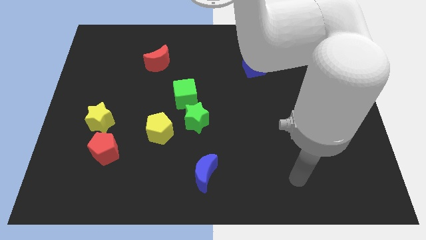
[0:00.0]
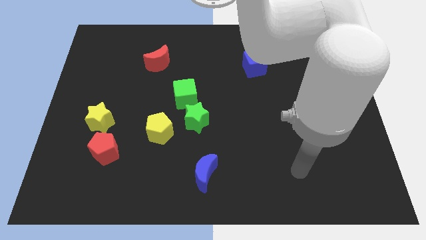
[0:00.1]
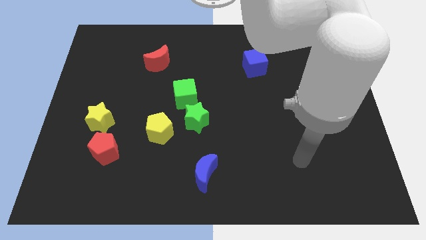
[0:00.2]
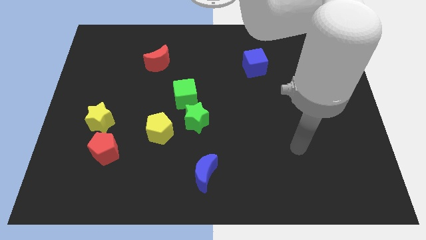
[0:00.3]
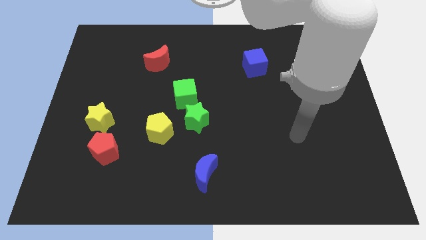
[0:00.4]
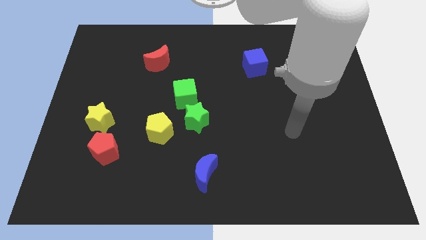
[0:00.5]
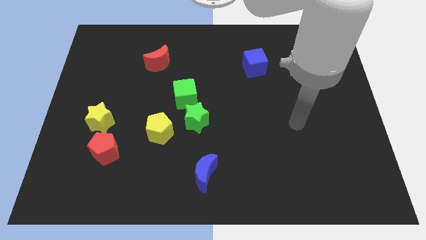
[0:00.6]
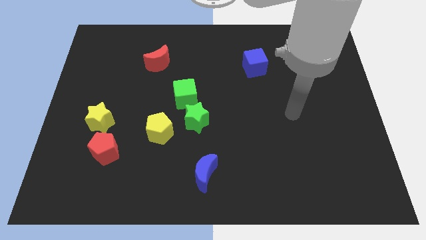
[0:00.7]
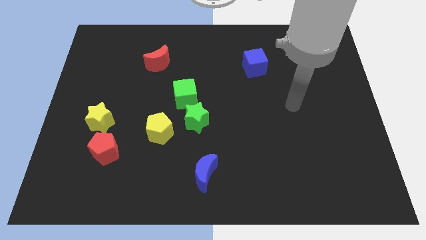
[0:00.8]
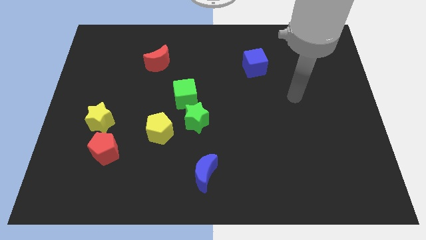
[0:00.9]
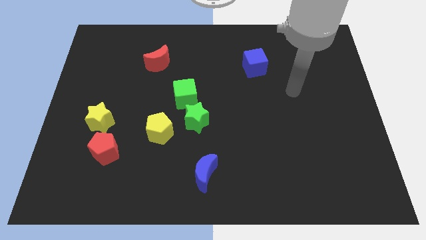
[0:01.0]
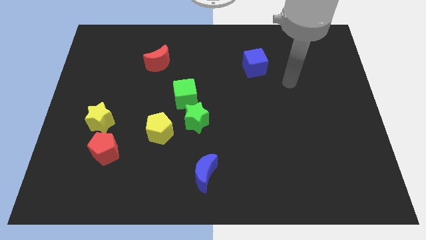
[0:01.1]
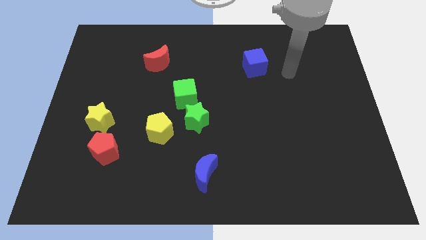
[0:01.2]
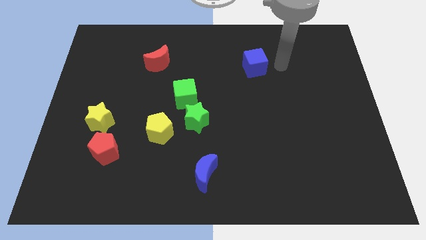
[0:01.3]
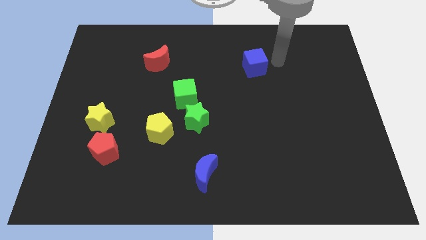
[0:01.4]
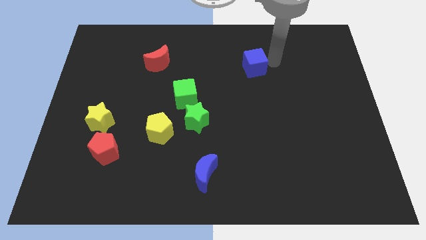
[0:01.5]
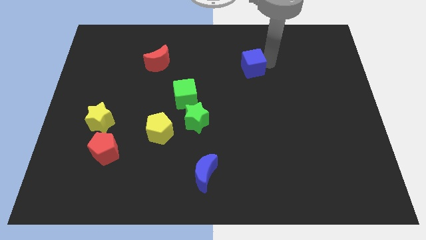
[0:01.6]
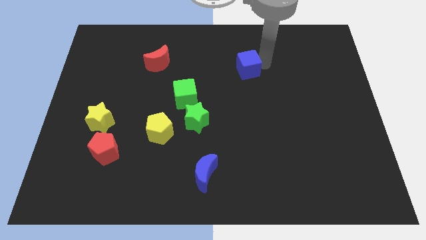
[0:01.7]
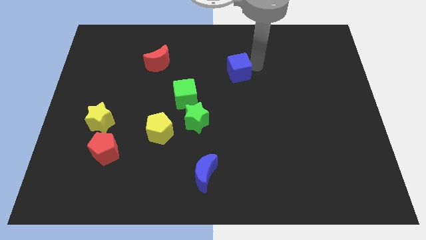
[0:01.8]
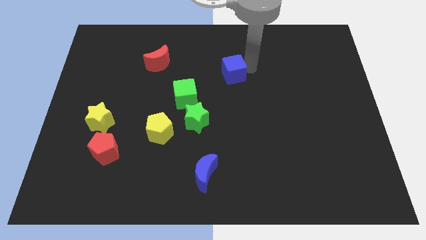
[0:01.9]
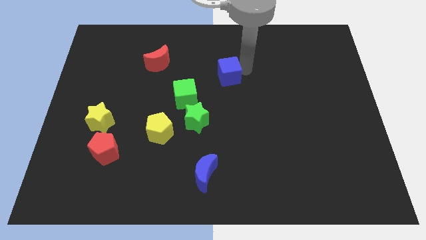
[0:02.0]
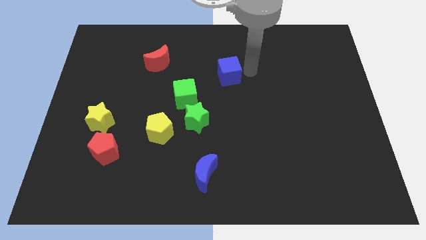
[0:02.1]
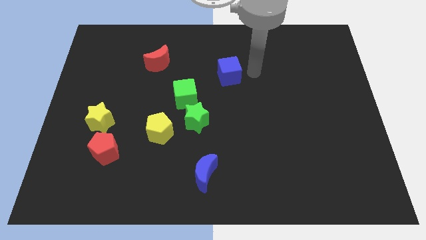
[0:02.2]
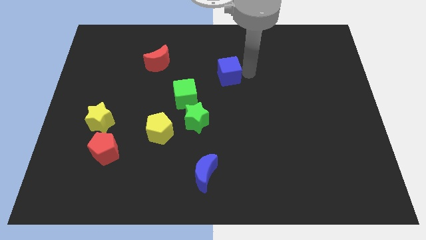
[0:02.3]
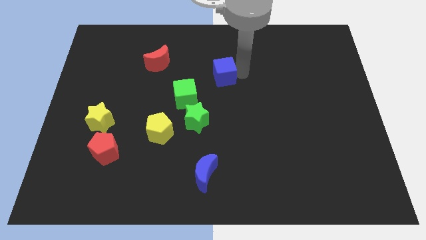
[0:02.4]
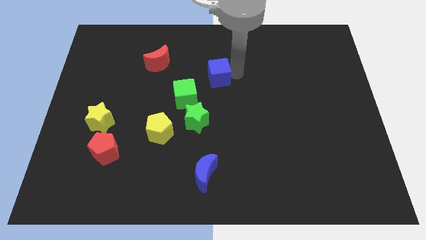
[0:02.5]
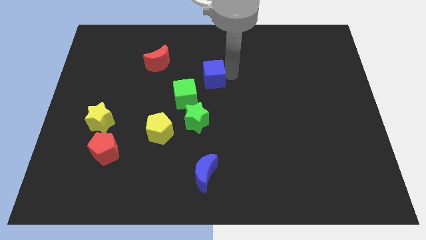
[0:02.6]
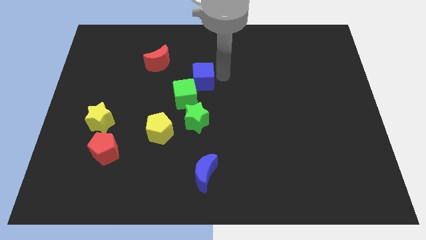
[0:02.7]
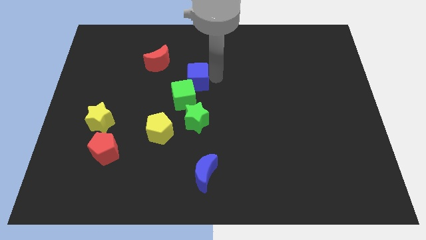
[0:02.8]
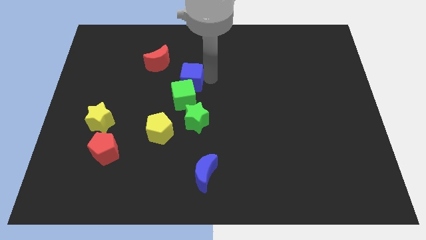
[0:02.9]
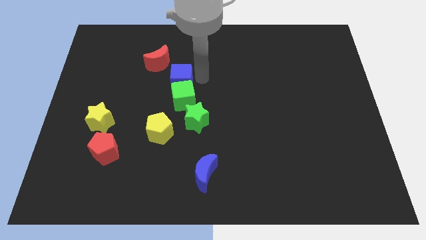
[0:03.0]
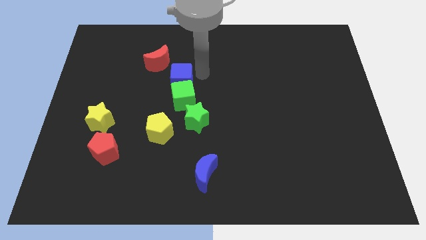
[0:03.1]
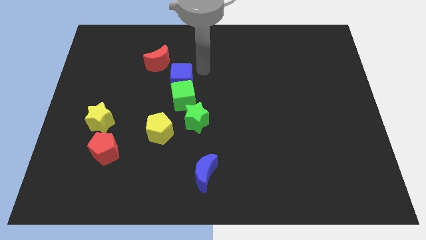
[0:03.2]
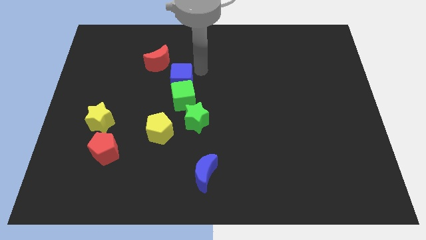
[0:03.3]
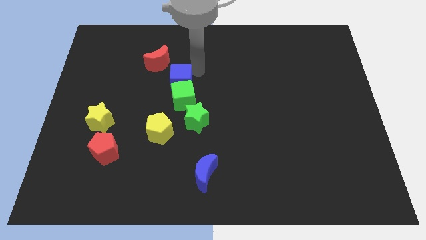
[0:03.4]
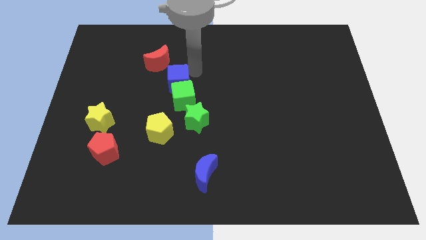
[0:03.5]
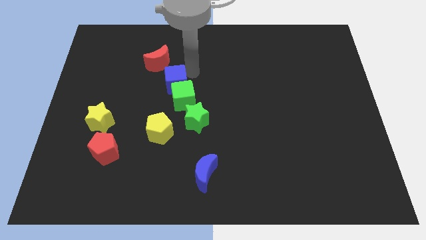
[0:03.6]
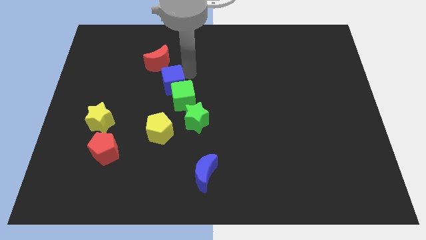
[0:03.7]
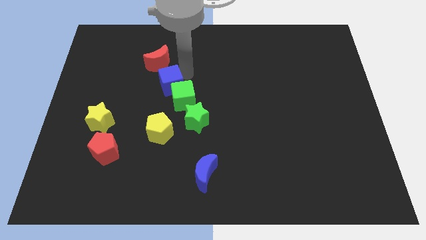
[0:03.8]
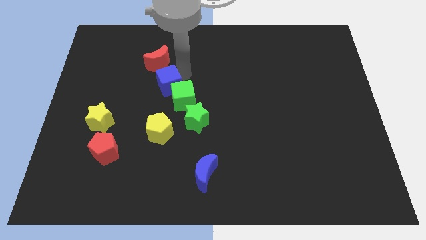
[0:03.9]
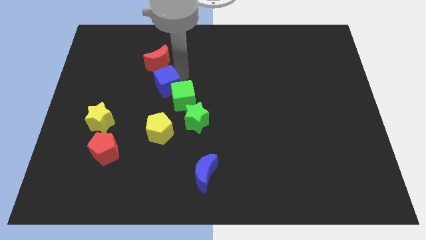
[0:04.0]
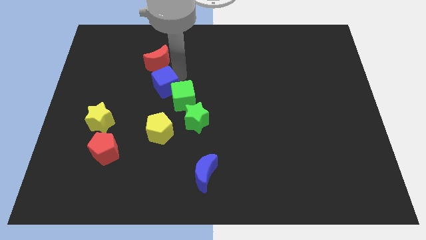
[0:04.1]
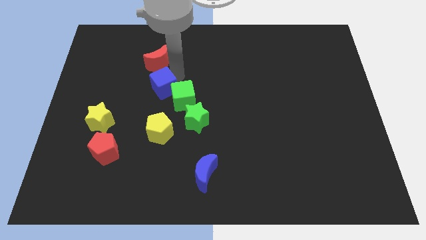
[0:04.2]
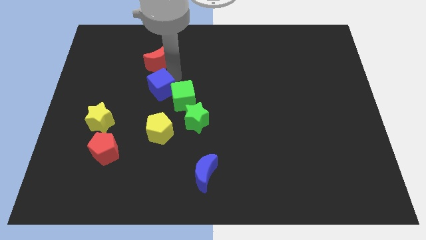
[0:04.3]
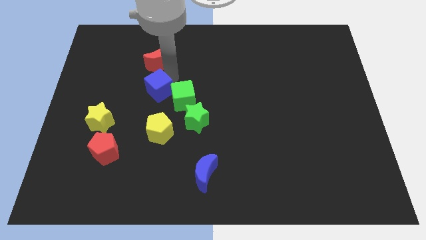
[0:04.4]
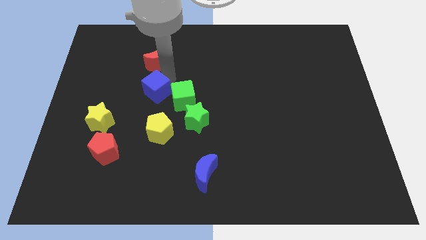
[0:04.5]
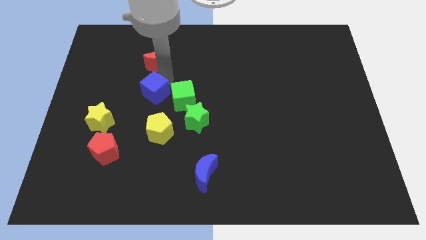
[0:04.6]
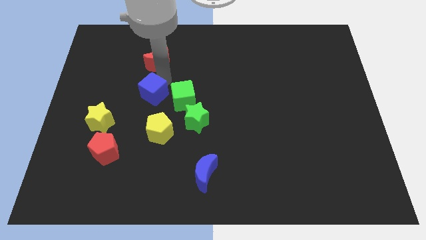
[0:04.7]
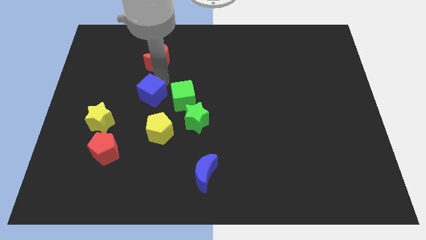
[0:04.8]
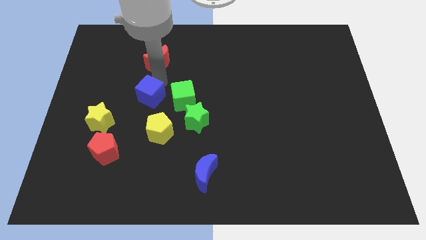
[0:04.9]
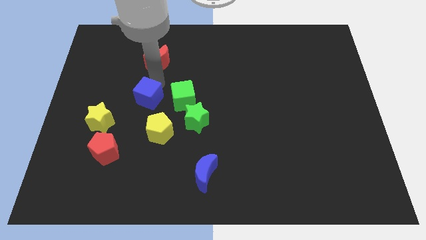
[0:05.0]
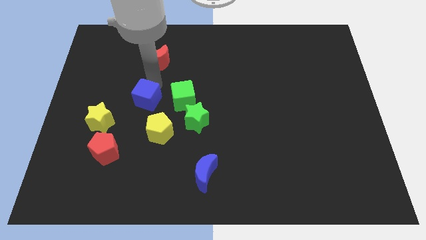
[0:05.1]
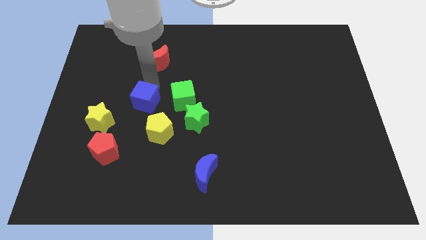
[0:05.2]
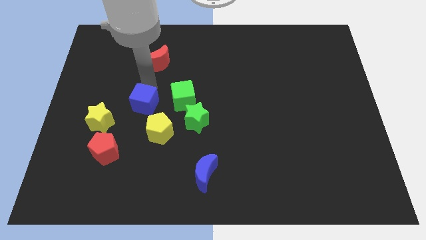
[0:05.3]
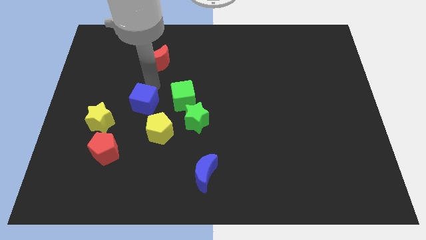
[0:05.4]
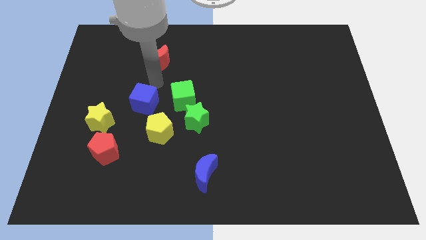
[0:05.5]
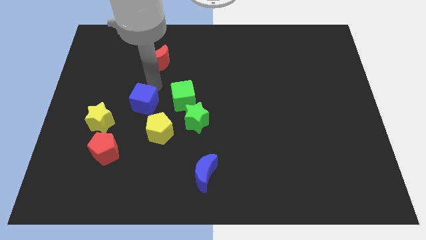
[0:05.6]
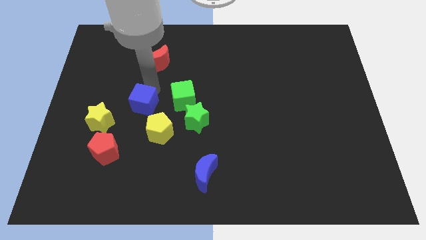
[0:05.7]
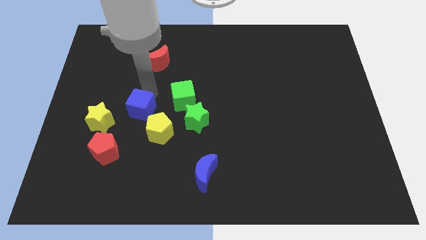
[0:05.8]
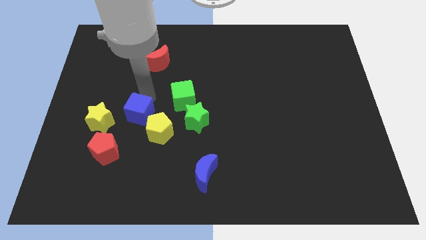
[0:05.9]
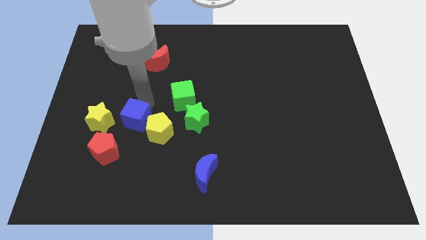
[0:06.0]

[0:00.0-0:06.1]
push the blue cube to the left side of the yellow pentagon

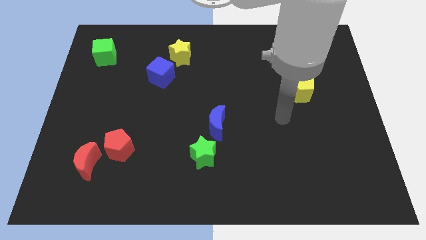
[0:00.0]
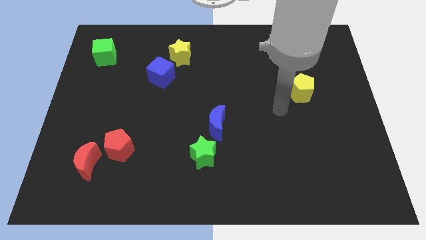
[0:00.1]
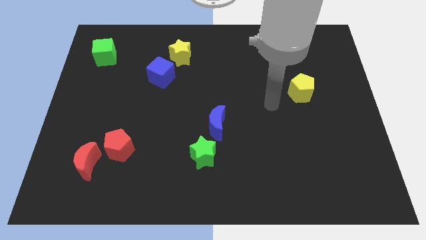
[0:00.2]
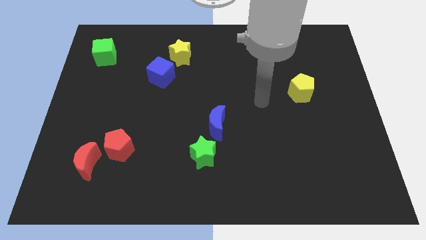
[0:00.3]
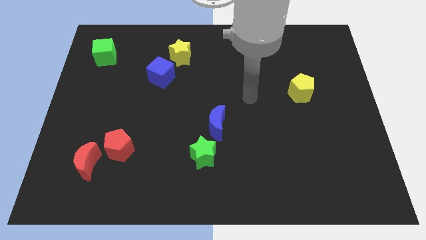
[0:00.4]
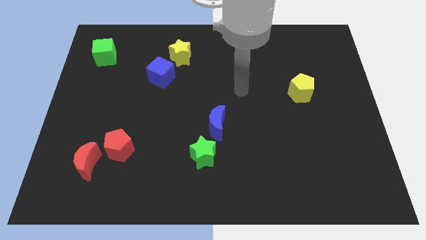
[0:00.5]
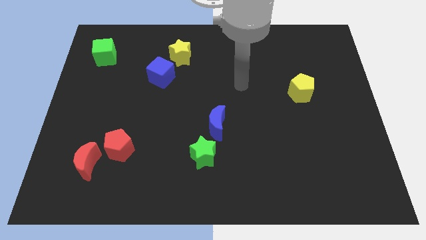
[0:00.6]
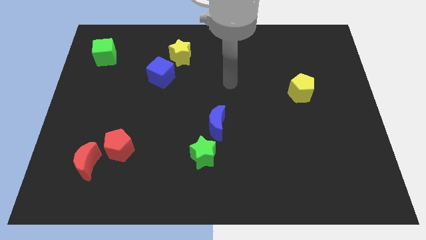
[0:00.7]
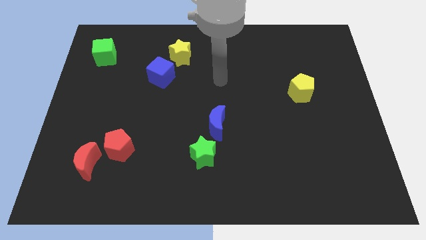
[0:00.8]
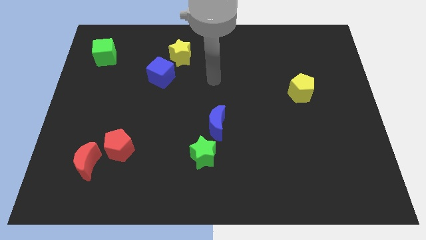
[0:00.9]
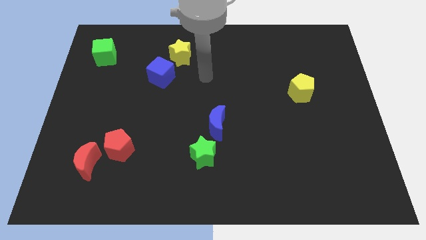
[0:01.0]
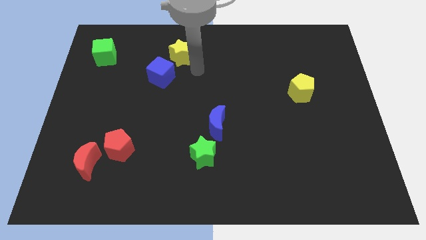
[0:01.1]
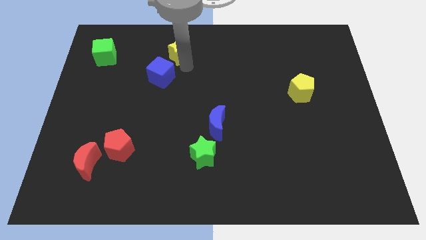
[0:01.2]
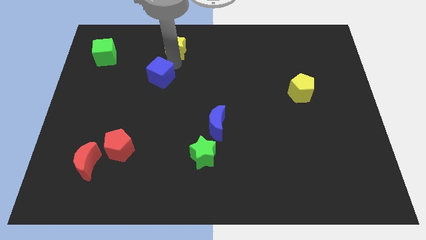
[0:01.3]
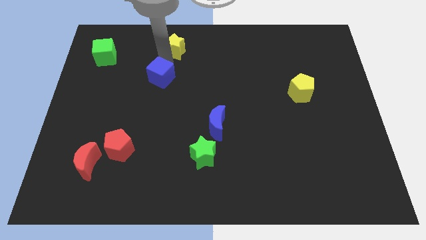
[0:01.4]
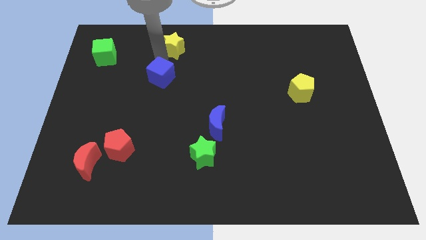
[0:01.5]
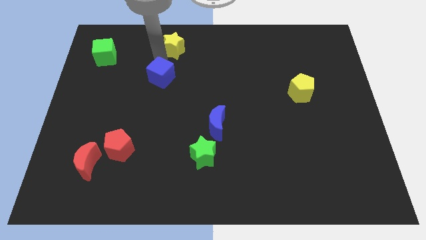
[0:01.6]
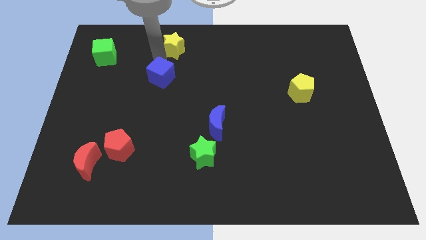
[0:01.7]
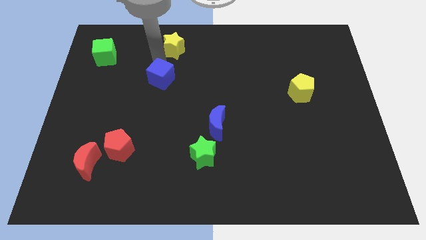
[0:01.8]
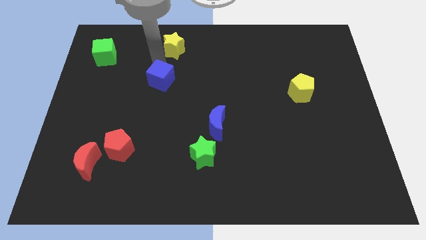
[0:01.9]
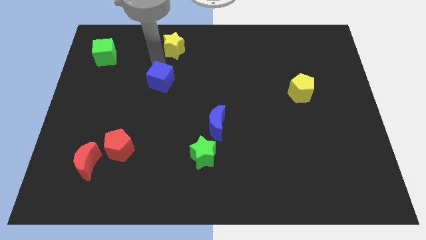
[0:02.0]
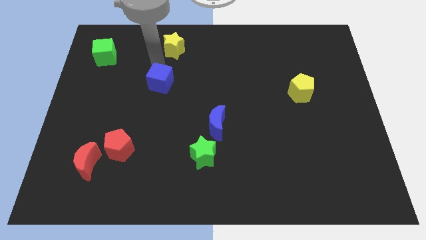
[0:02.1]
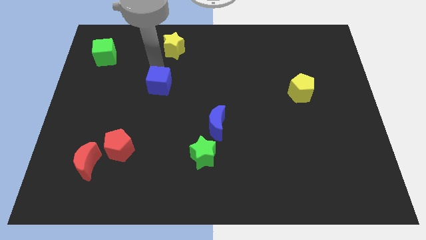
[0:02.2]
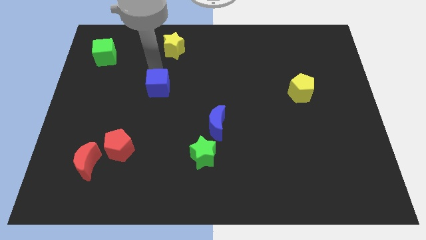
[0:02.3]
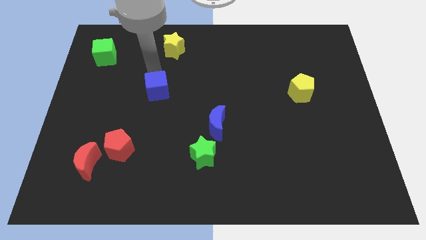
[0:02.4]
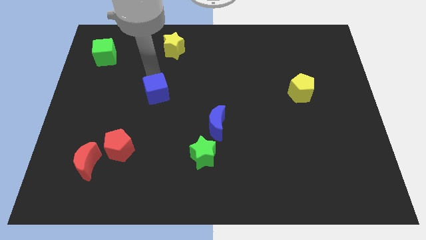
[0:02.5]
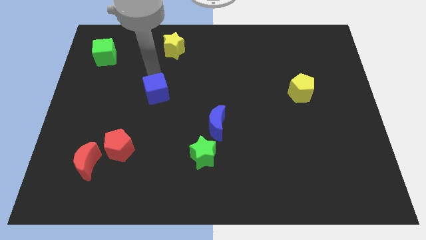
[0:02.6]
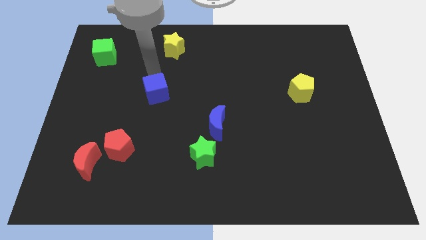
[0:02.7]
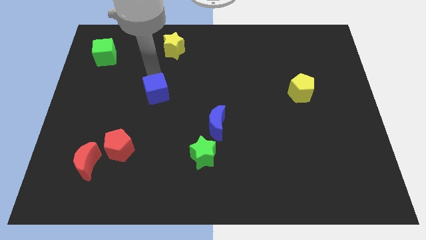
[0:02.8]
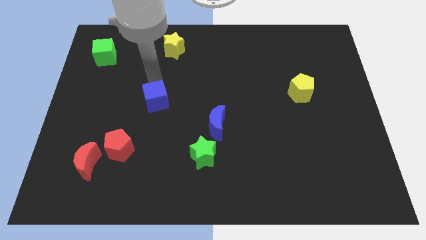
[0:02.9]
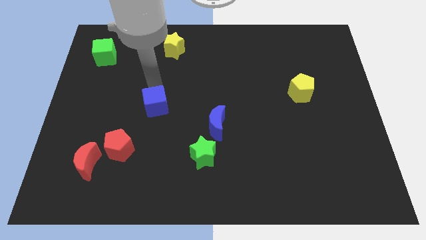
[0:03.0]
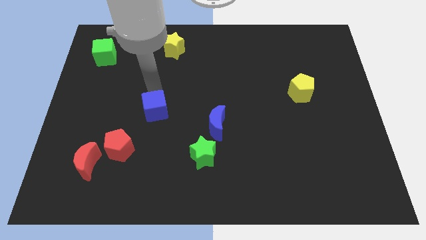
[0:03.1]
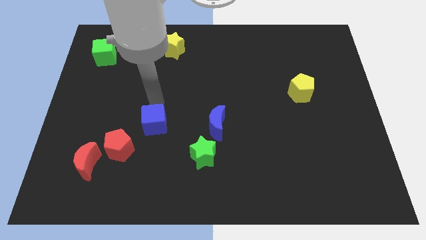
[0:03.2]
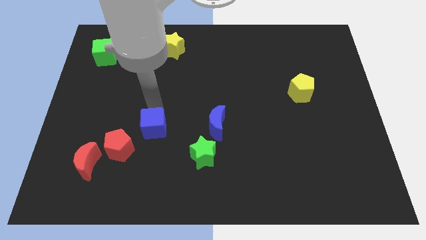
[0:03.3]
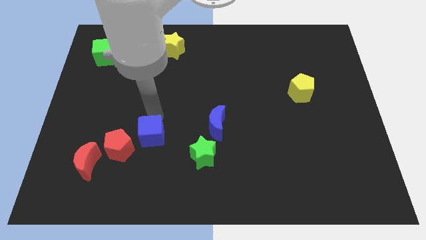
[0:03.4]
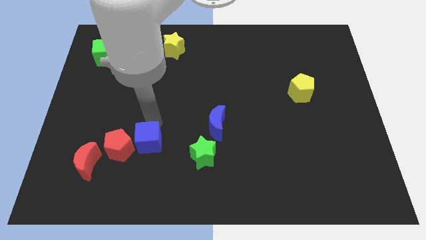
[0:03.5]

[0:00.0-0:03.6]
push the blue cube to the left of the green star
